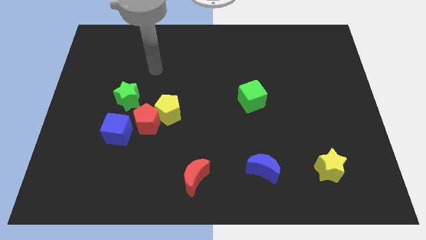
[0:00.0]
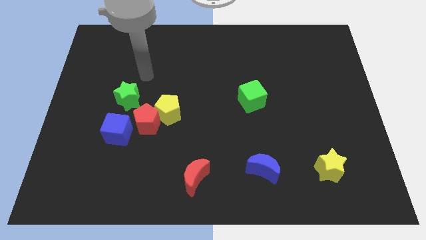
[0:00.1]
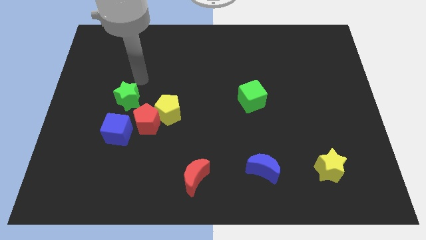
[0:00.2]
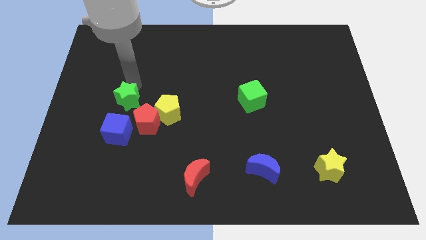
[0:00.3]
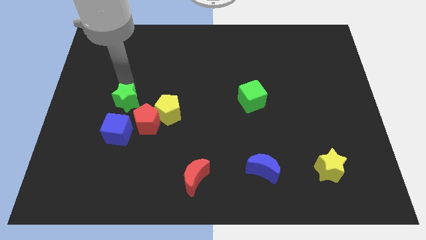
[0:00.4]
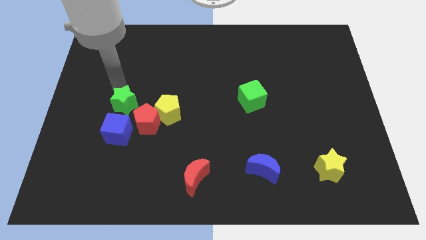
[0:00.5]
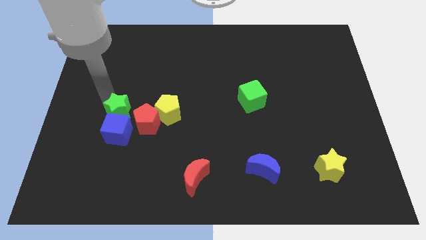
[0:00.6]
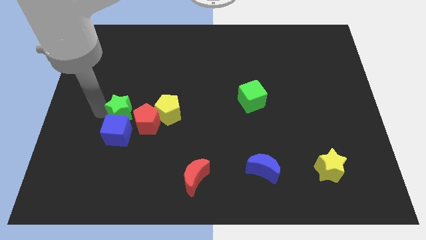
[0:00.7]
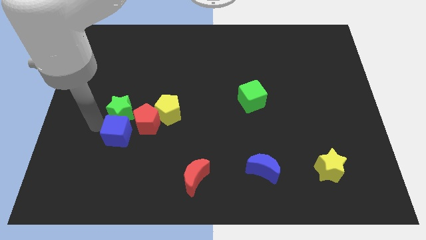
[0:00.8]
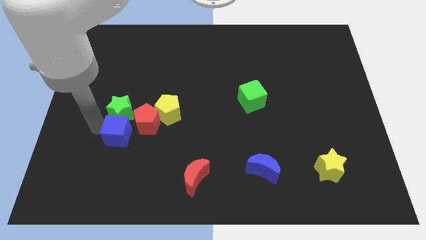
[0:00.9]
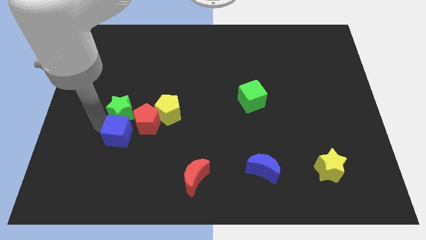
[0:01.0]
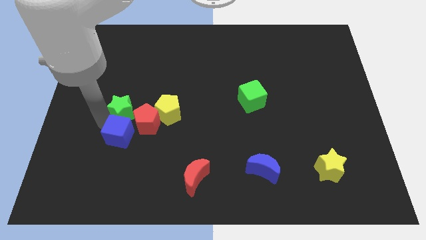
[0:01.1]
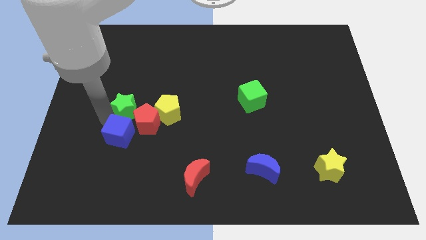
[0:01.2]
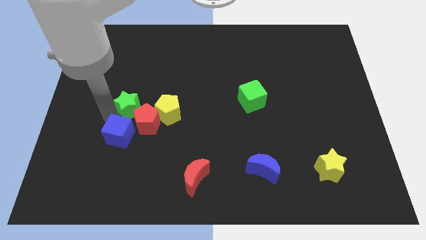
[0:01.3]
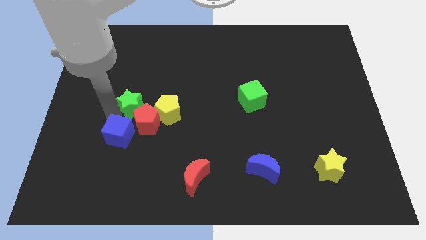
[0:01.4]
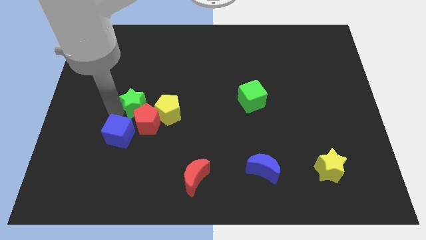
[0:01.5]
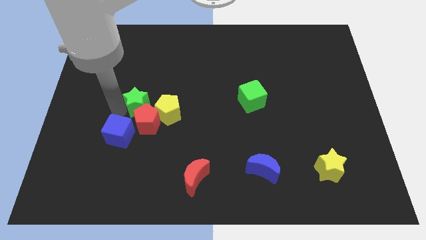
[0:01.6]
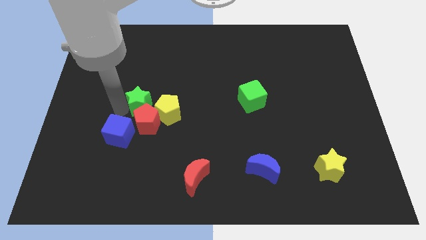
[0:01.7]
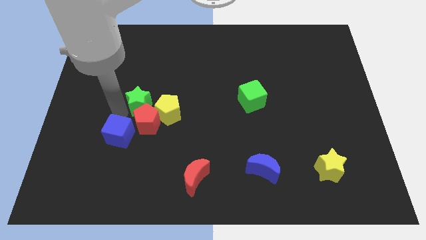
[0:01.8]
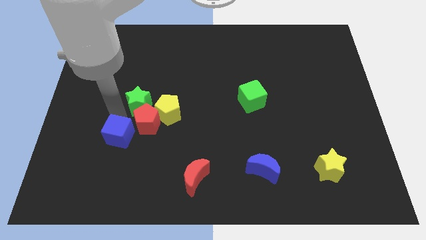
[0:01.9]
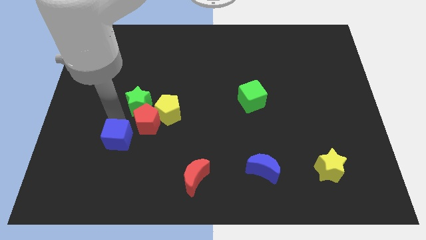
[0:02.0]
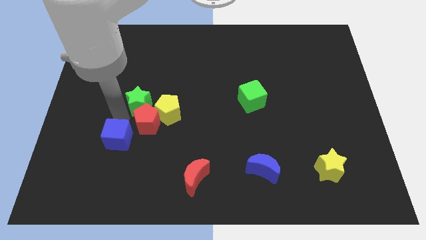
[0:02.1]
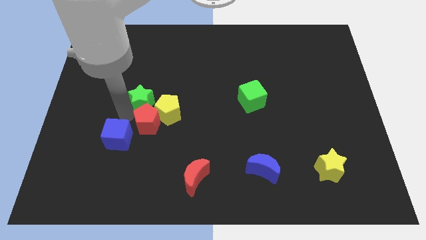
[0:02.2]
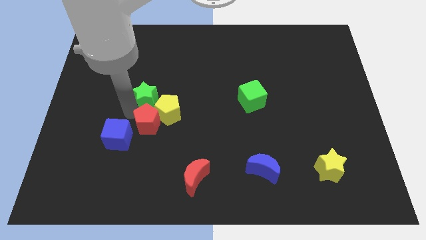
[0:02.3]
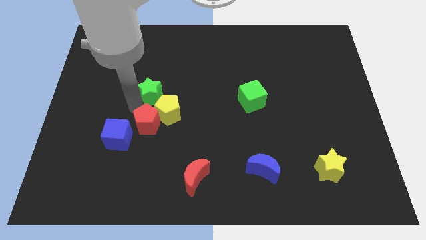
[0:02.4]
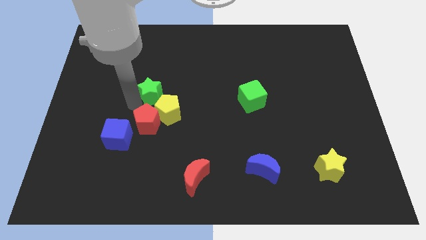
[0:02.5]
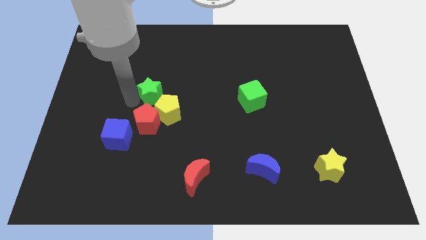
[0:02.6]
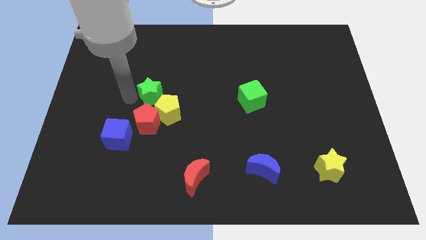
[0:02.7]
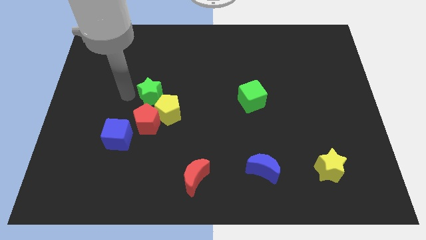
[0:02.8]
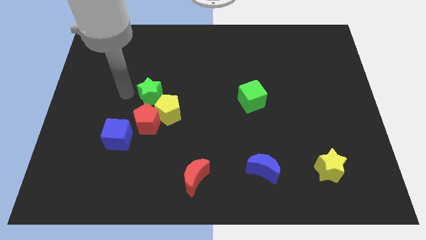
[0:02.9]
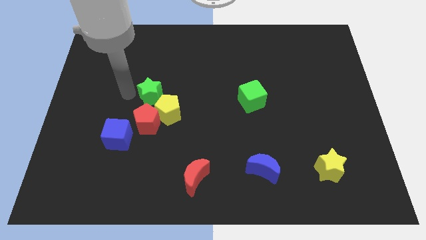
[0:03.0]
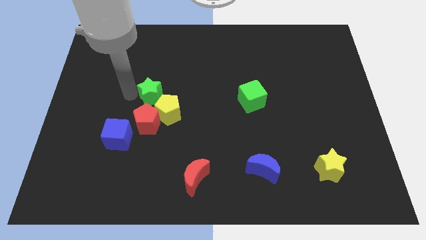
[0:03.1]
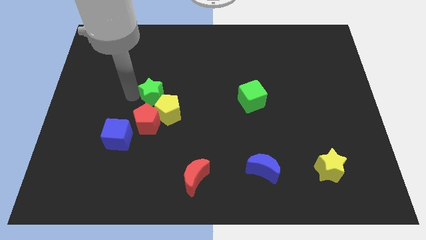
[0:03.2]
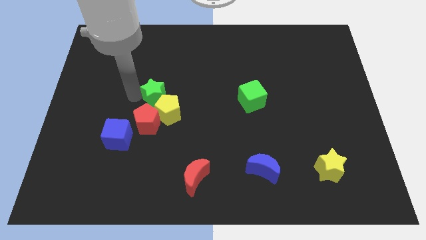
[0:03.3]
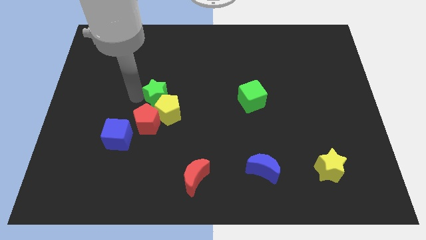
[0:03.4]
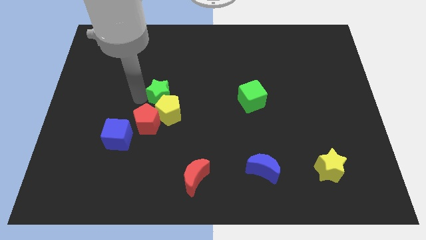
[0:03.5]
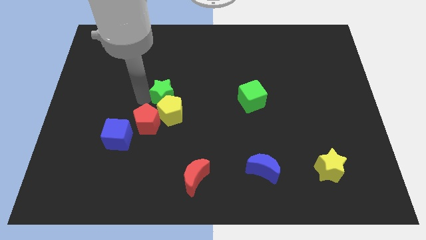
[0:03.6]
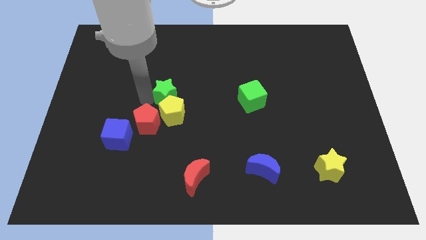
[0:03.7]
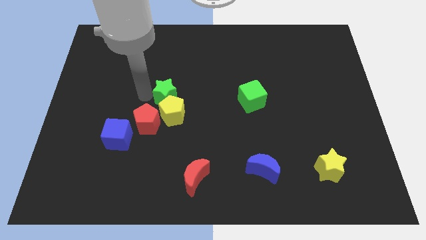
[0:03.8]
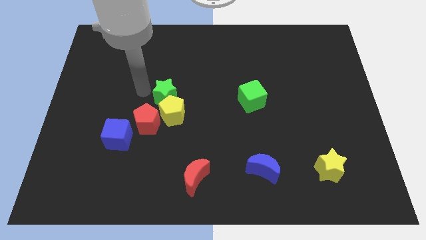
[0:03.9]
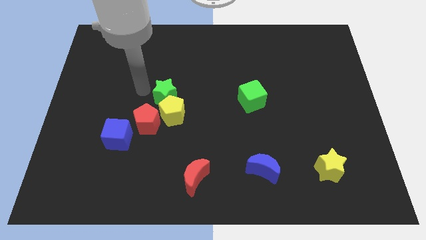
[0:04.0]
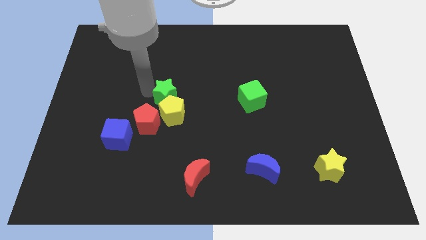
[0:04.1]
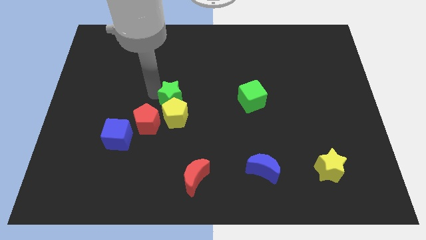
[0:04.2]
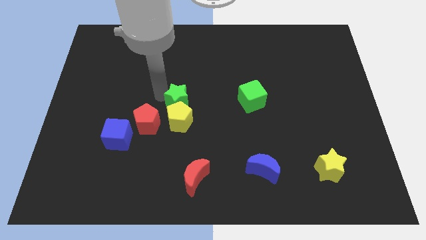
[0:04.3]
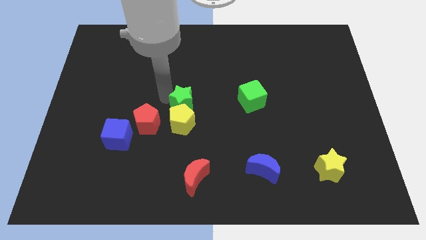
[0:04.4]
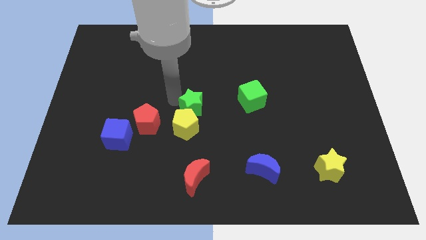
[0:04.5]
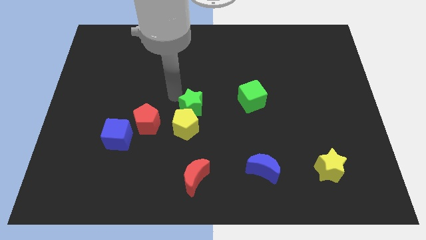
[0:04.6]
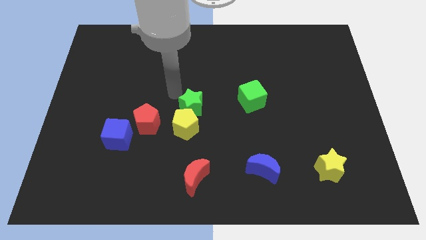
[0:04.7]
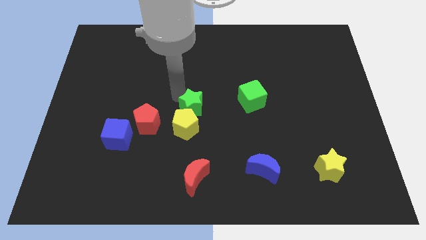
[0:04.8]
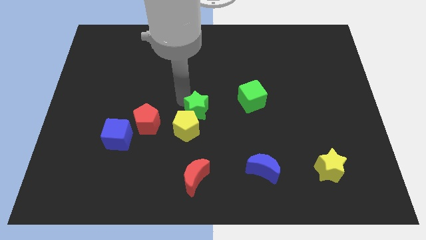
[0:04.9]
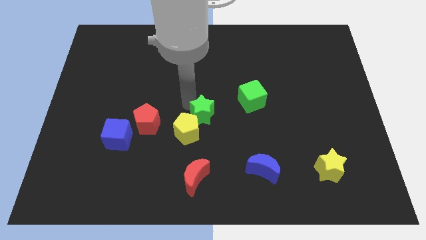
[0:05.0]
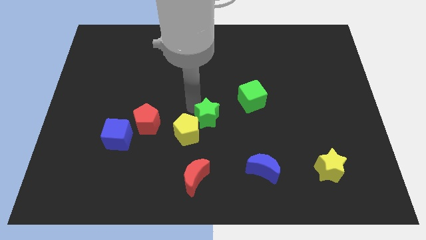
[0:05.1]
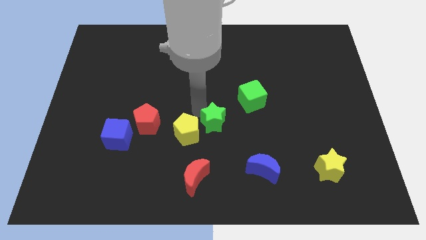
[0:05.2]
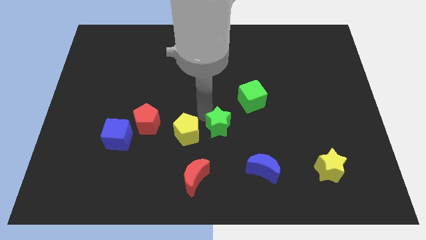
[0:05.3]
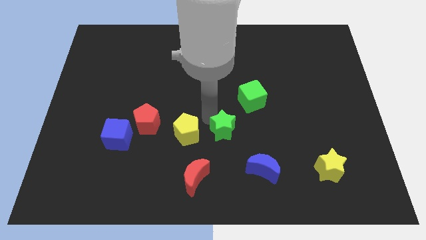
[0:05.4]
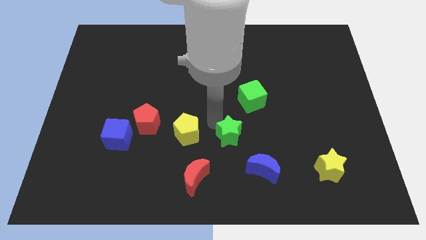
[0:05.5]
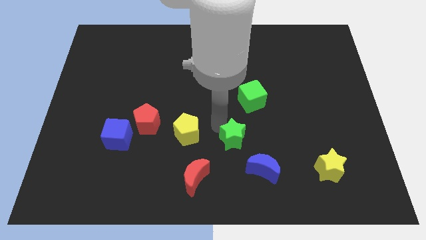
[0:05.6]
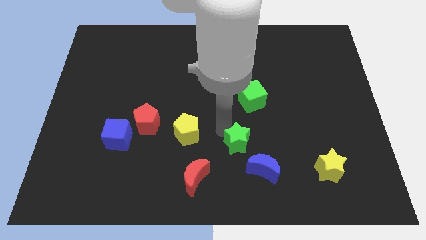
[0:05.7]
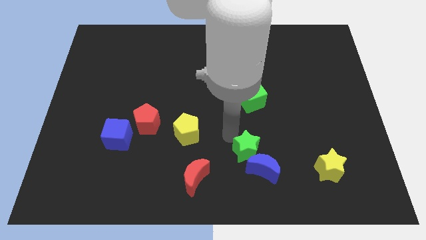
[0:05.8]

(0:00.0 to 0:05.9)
move the green star towards the blue moon

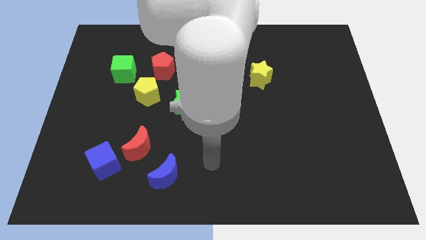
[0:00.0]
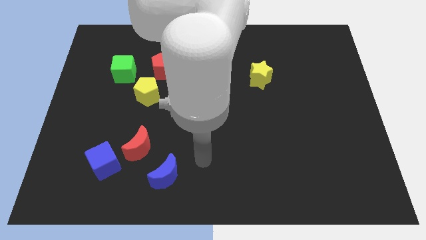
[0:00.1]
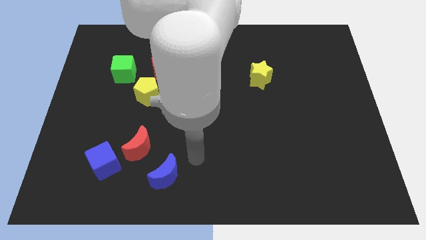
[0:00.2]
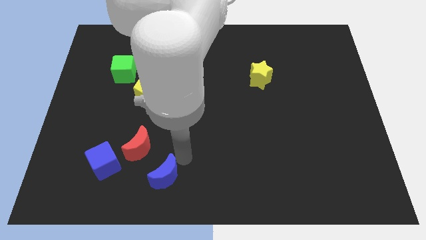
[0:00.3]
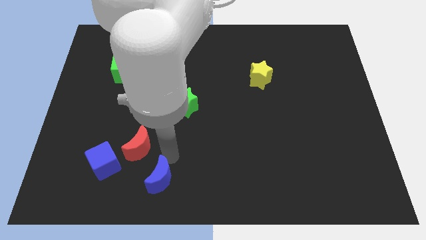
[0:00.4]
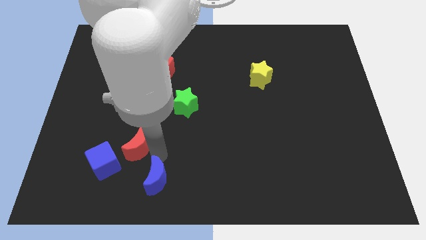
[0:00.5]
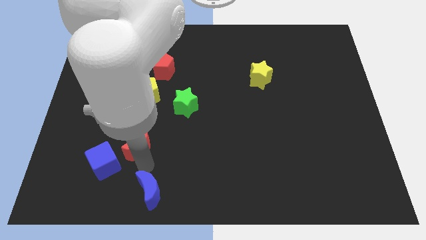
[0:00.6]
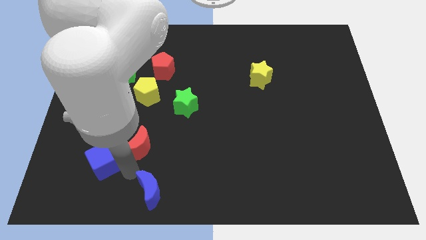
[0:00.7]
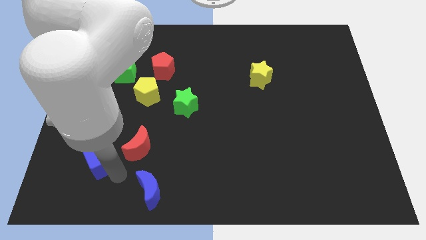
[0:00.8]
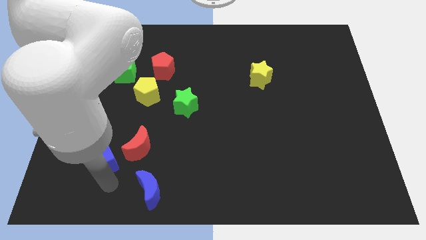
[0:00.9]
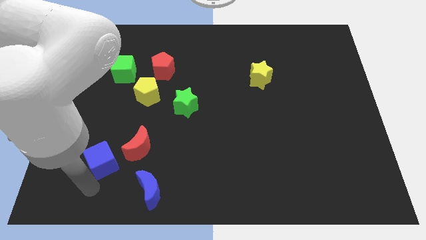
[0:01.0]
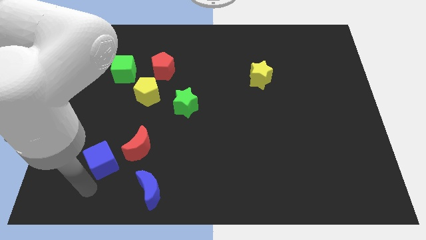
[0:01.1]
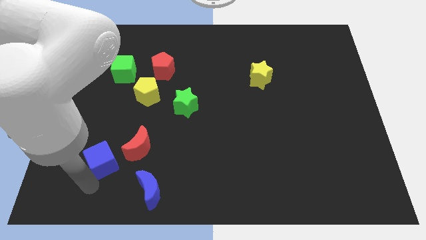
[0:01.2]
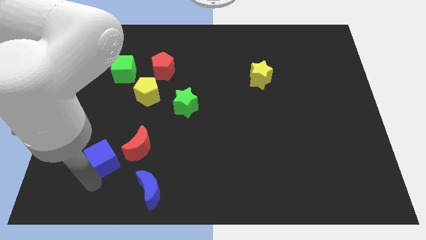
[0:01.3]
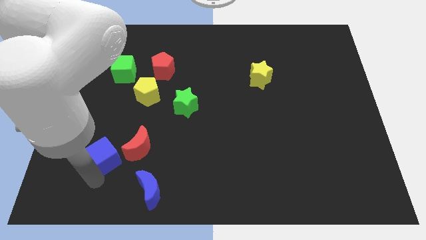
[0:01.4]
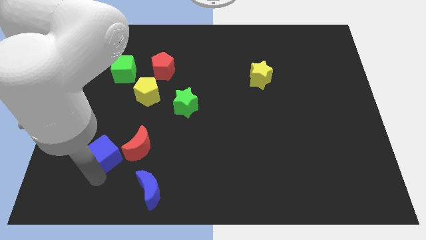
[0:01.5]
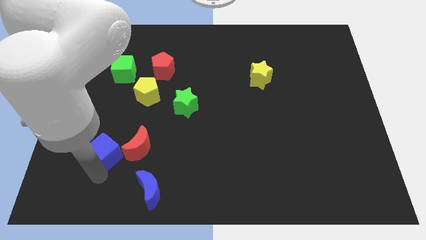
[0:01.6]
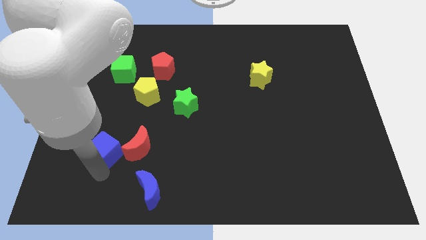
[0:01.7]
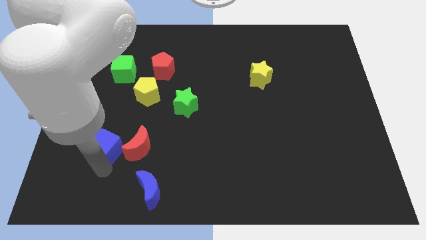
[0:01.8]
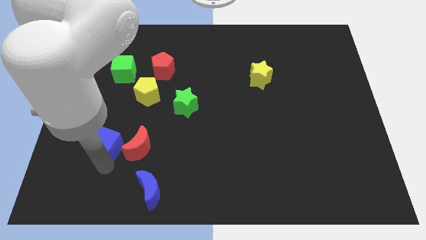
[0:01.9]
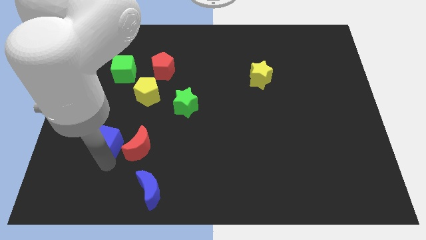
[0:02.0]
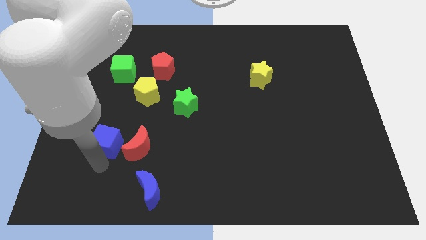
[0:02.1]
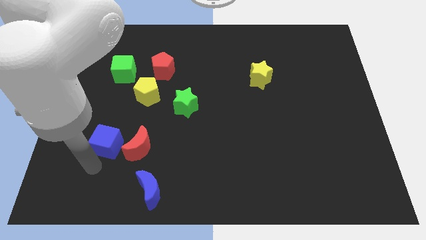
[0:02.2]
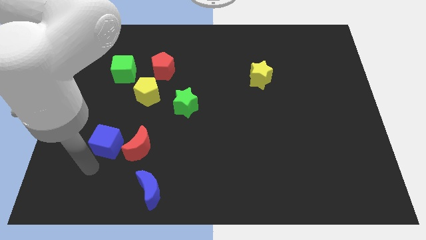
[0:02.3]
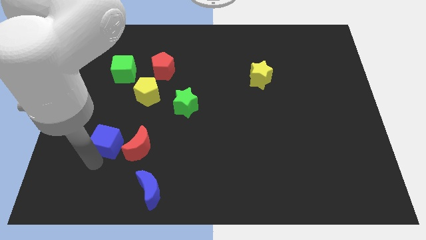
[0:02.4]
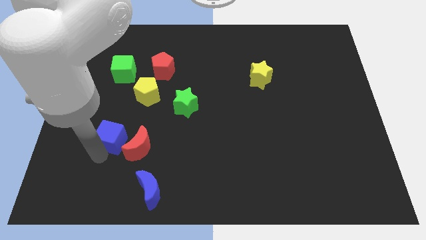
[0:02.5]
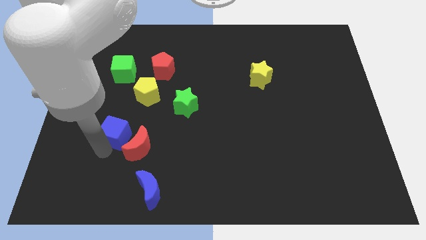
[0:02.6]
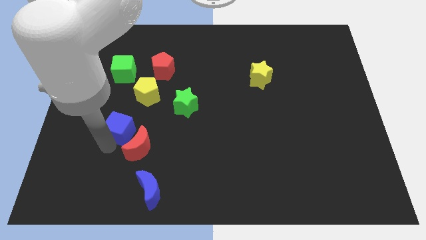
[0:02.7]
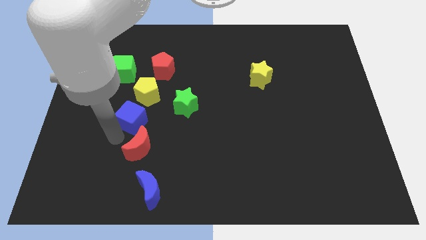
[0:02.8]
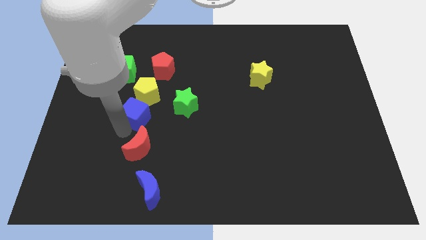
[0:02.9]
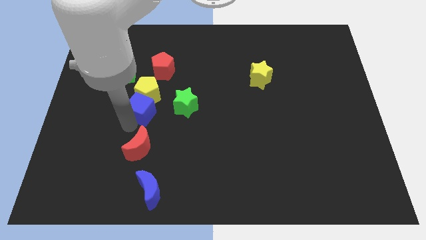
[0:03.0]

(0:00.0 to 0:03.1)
push the blue cube close to the yellow pentagon
